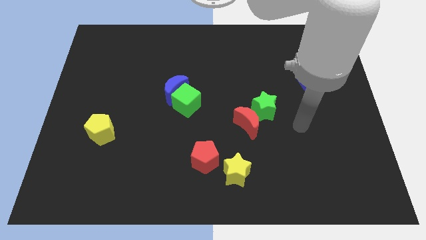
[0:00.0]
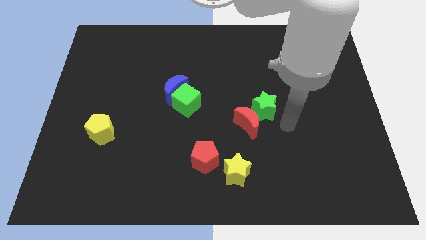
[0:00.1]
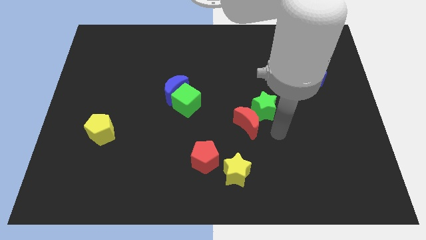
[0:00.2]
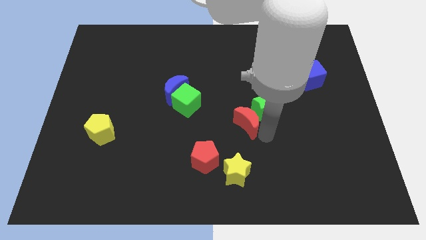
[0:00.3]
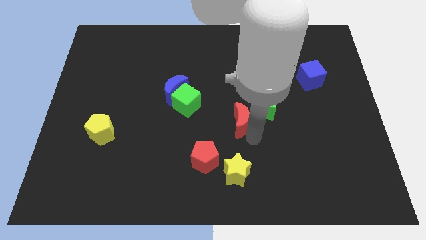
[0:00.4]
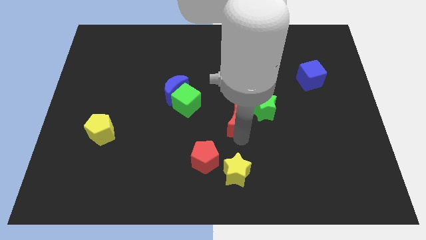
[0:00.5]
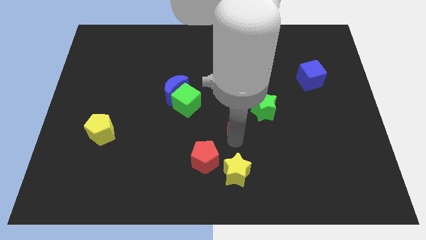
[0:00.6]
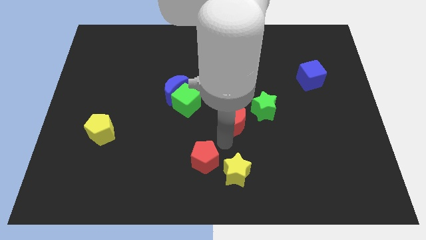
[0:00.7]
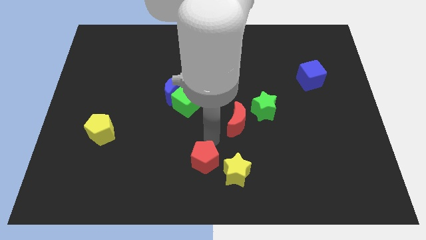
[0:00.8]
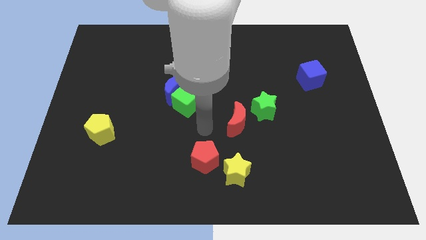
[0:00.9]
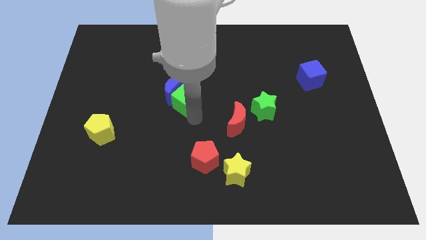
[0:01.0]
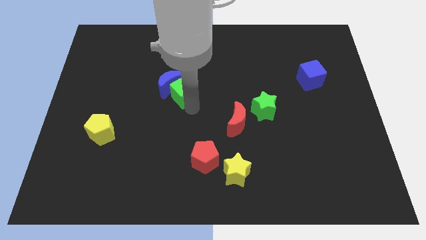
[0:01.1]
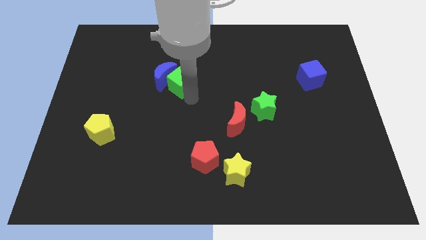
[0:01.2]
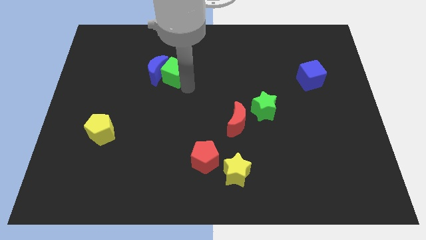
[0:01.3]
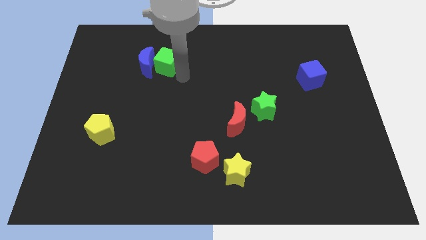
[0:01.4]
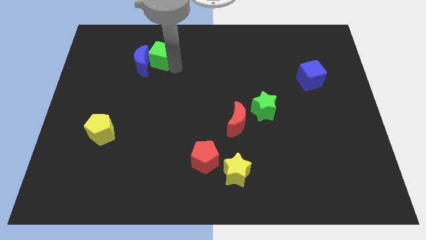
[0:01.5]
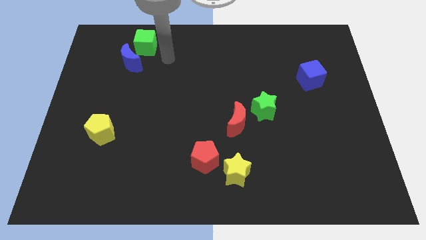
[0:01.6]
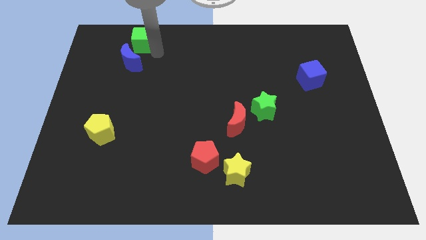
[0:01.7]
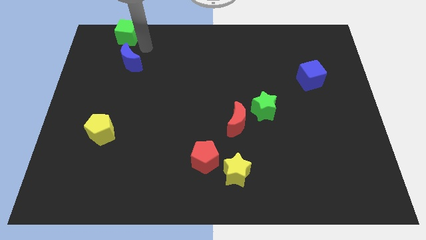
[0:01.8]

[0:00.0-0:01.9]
pull the blue moon apart from the green cube

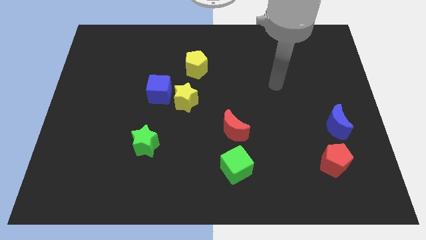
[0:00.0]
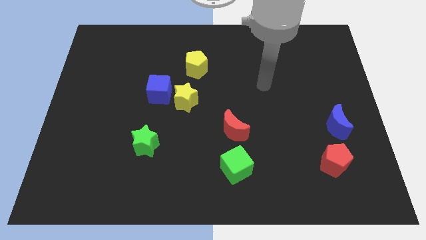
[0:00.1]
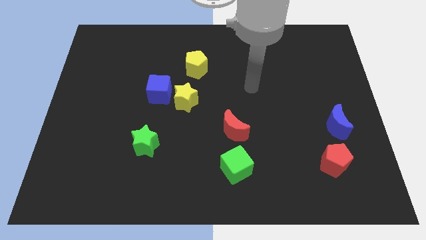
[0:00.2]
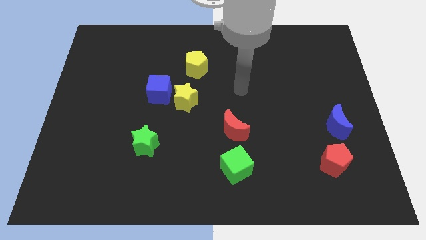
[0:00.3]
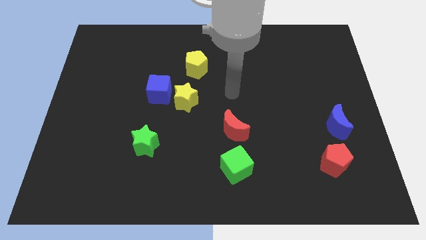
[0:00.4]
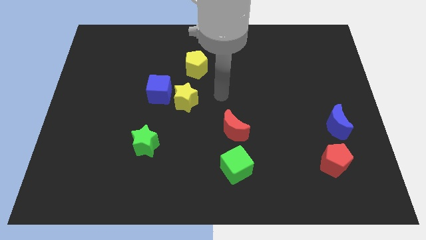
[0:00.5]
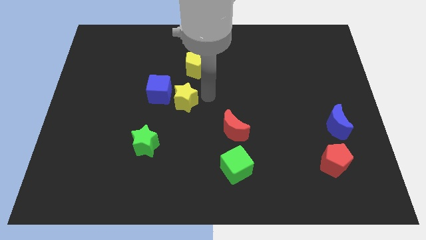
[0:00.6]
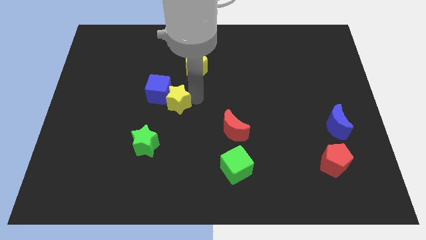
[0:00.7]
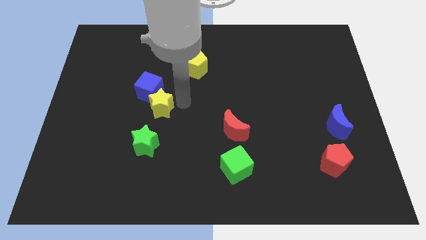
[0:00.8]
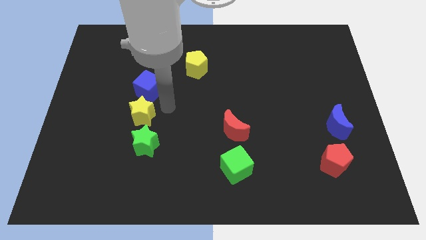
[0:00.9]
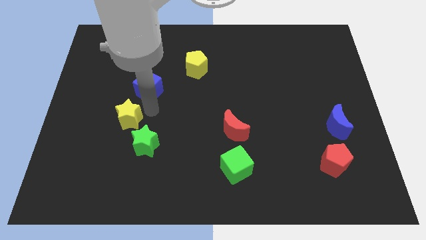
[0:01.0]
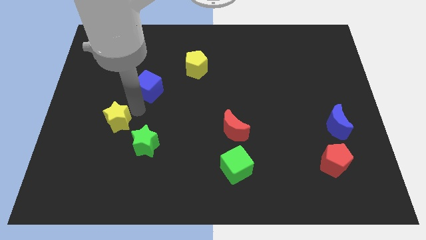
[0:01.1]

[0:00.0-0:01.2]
move the blue cube away from the yellow star

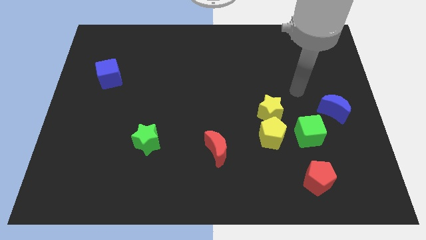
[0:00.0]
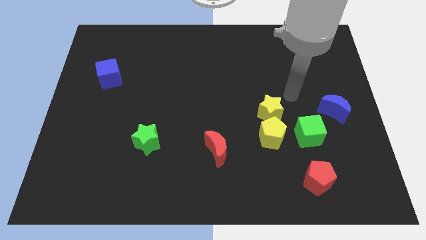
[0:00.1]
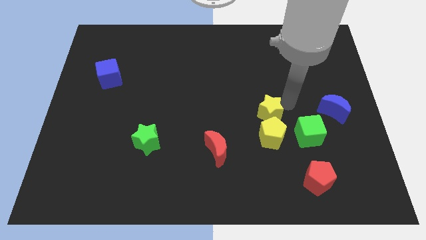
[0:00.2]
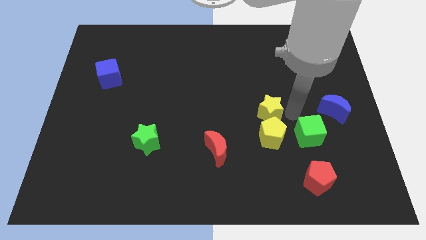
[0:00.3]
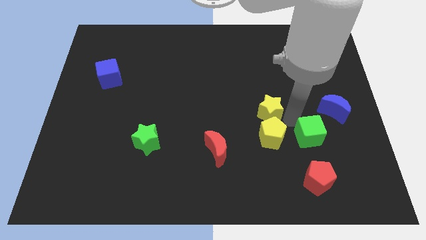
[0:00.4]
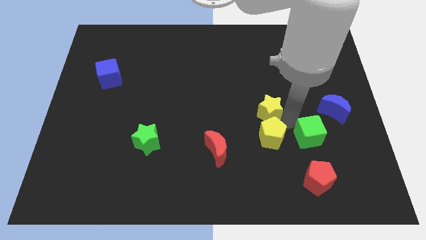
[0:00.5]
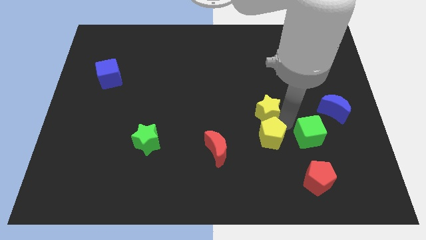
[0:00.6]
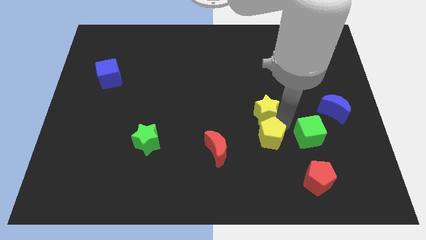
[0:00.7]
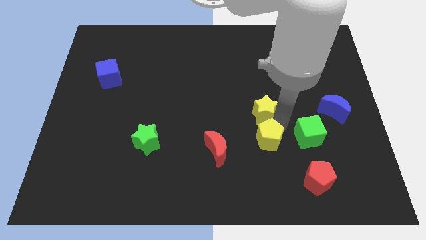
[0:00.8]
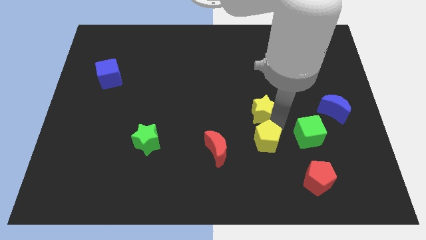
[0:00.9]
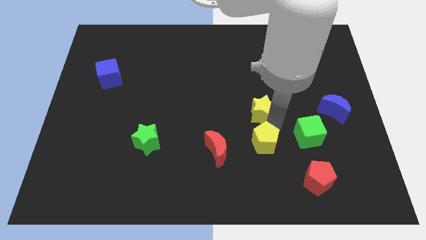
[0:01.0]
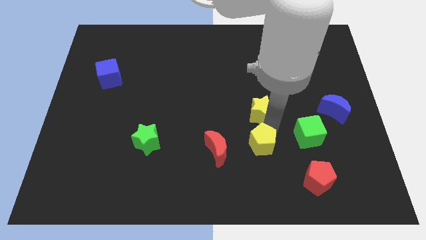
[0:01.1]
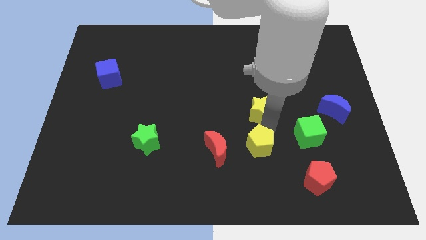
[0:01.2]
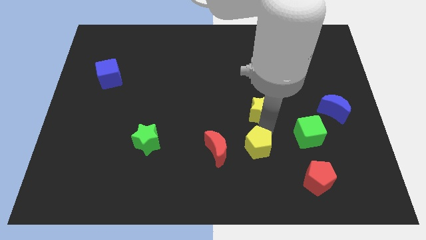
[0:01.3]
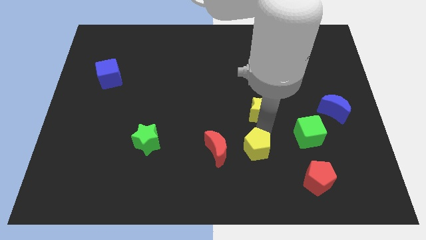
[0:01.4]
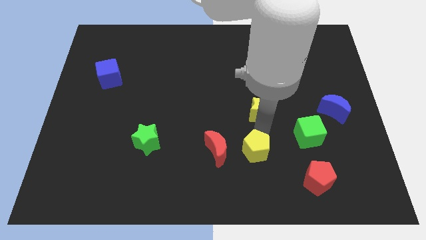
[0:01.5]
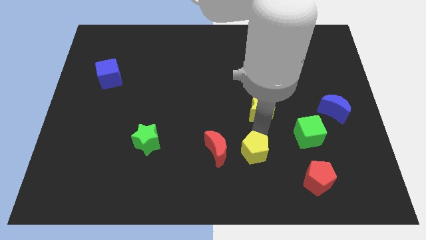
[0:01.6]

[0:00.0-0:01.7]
pull the yellow pentagon apart from the yellow star and green cube

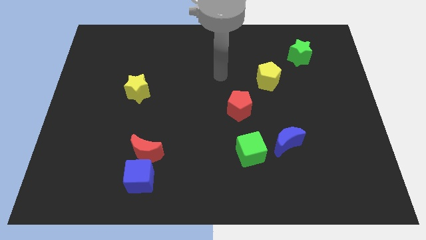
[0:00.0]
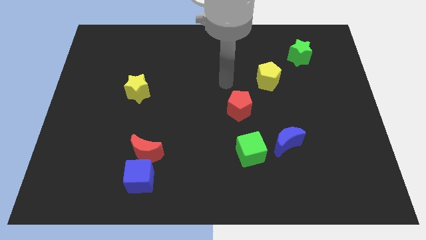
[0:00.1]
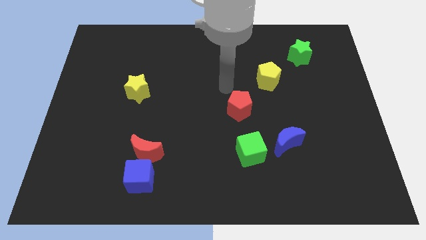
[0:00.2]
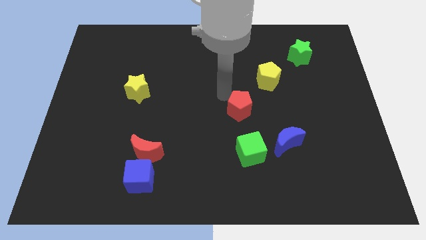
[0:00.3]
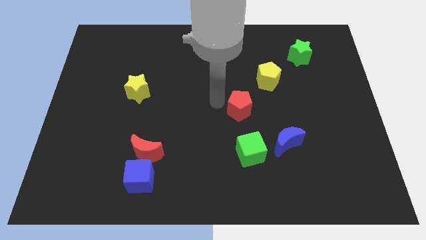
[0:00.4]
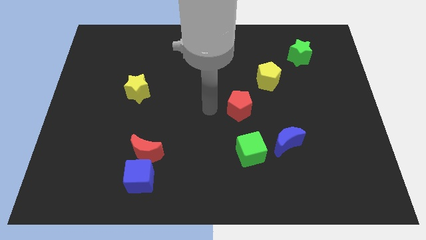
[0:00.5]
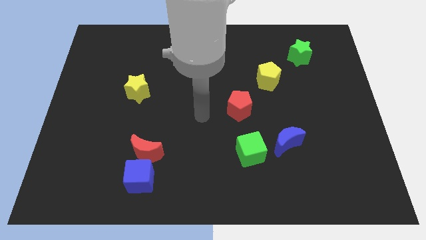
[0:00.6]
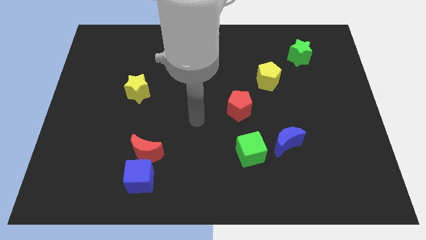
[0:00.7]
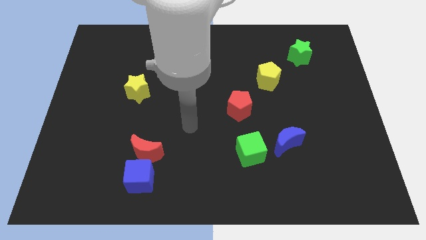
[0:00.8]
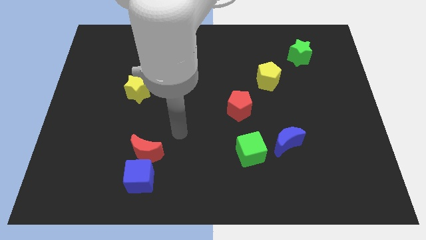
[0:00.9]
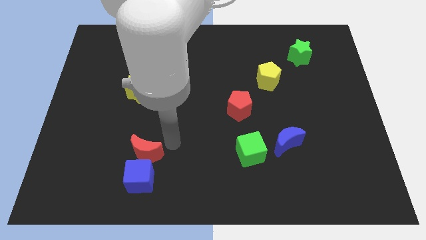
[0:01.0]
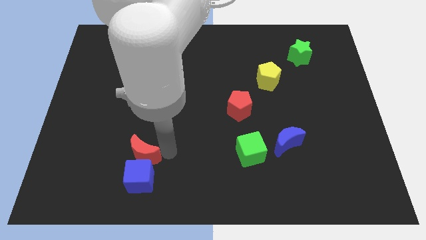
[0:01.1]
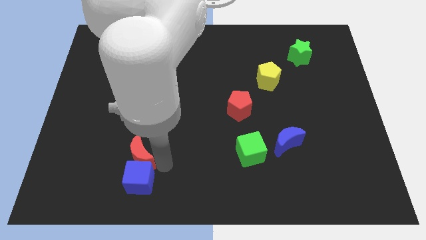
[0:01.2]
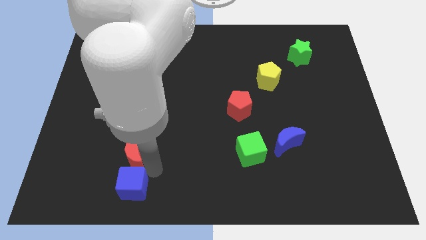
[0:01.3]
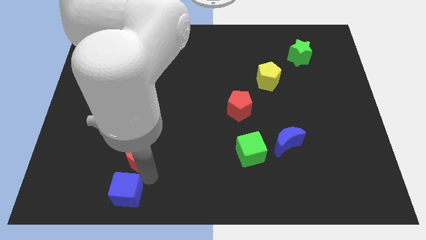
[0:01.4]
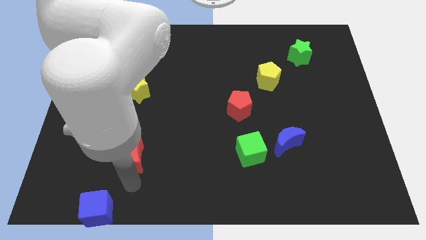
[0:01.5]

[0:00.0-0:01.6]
move the red moon away from the blue cube

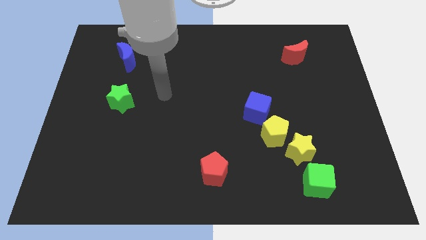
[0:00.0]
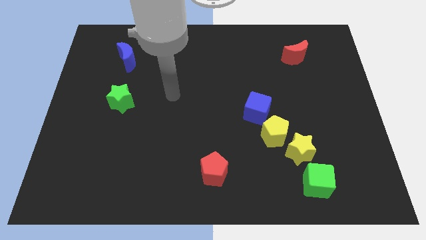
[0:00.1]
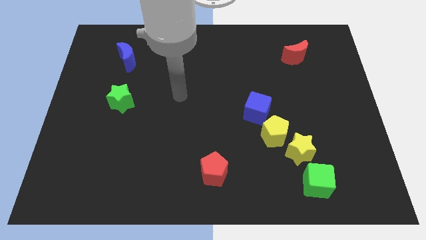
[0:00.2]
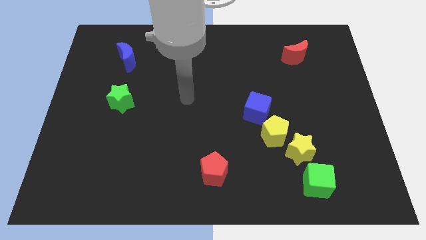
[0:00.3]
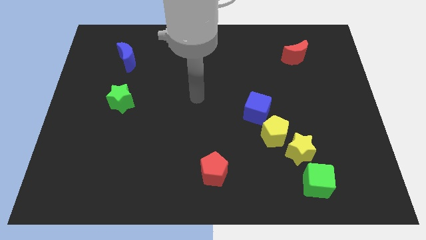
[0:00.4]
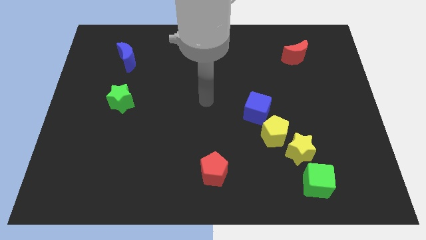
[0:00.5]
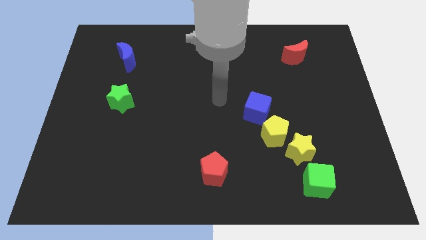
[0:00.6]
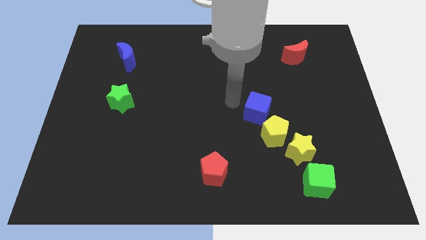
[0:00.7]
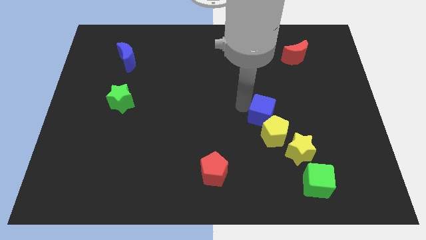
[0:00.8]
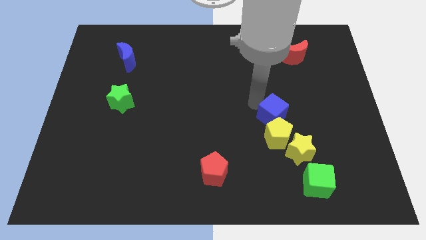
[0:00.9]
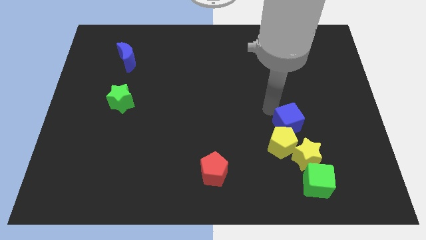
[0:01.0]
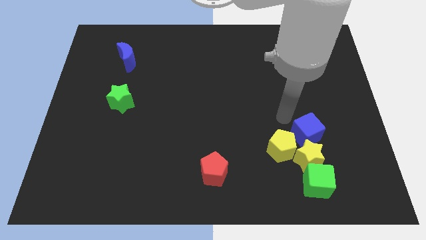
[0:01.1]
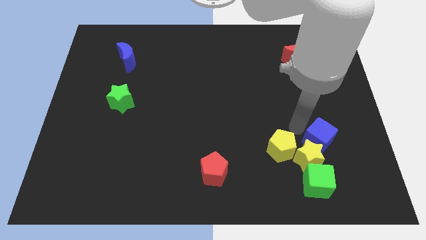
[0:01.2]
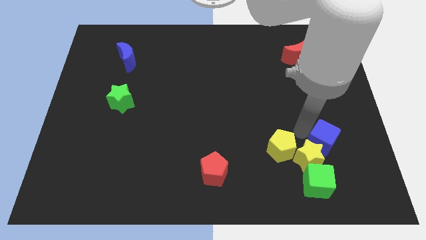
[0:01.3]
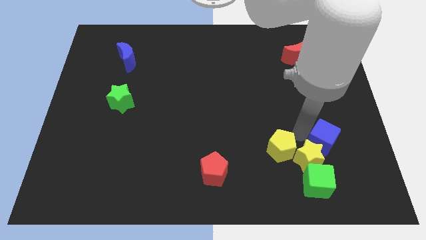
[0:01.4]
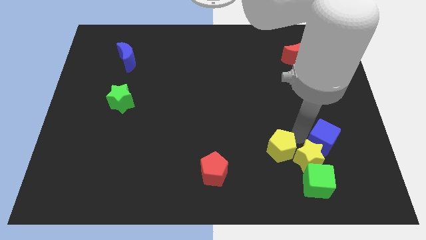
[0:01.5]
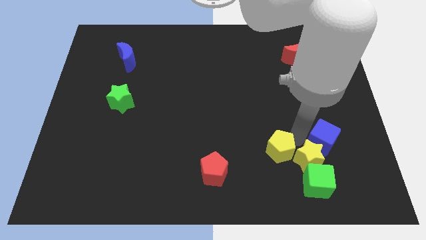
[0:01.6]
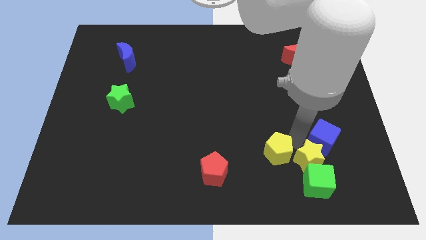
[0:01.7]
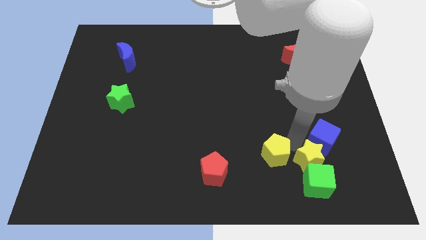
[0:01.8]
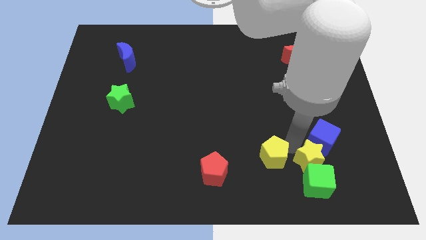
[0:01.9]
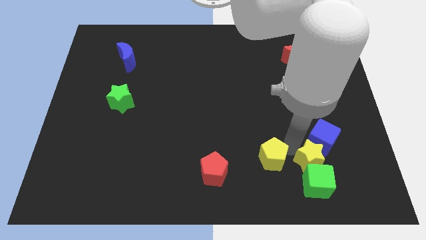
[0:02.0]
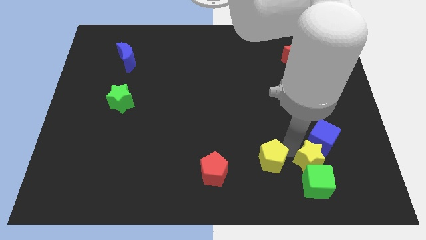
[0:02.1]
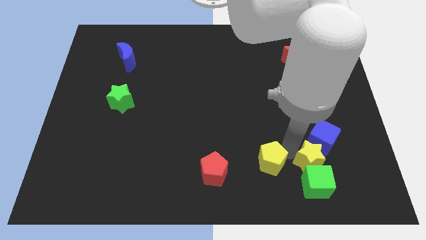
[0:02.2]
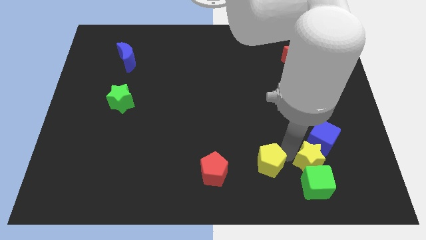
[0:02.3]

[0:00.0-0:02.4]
move the yellow pentagon away from the yellow star and blue cube

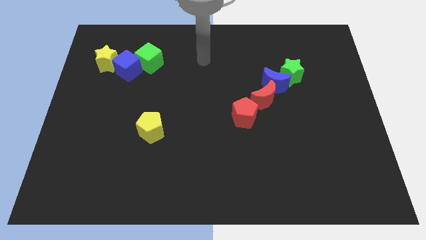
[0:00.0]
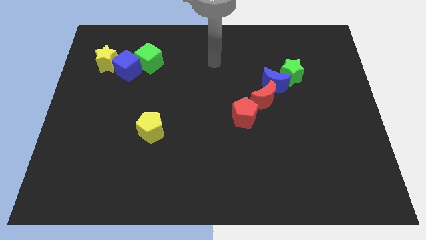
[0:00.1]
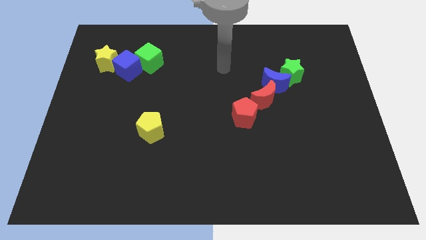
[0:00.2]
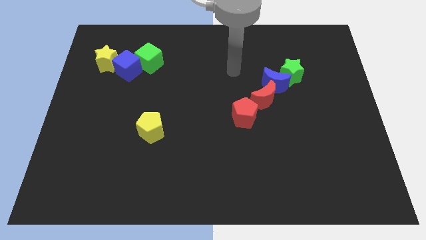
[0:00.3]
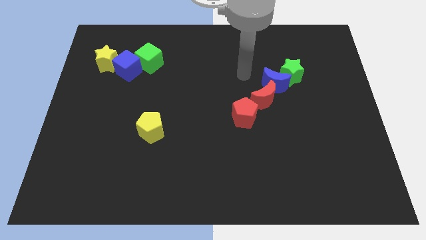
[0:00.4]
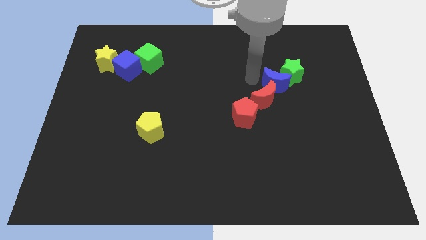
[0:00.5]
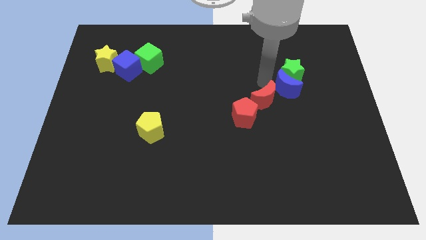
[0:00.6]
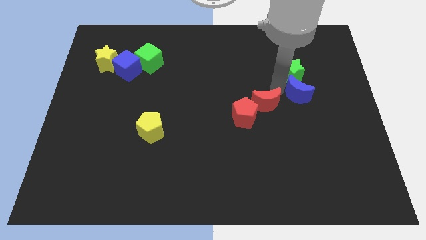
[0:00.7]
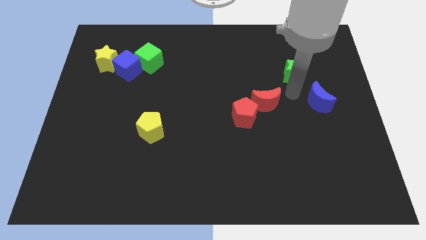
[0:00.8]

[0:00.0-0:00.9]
separate the green star from the blue moon
